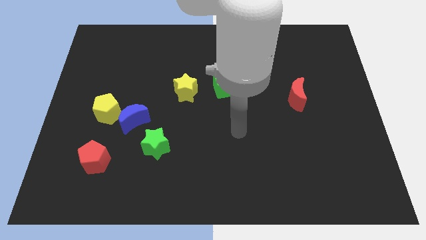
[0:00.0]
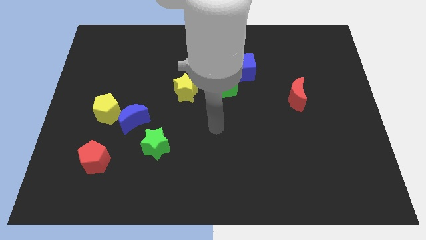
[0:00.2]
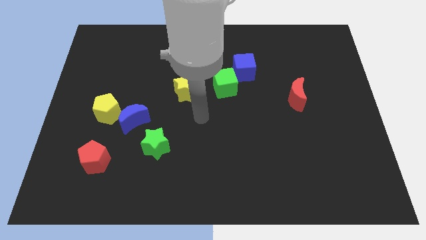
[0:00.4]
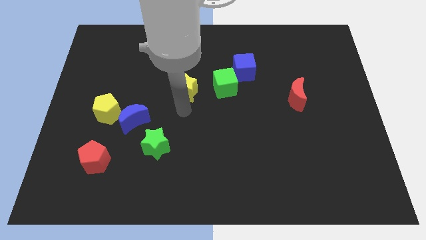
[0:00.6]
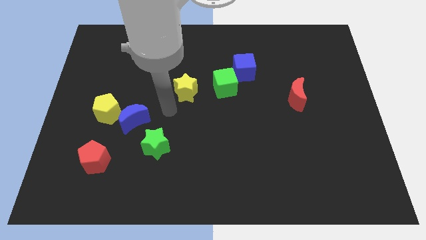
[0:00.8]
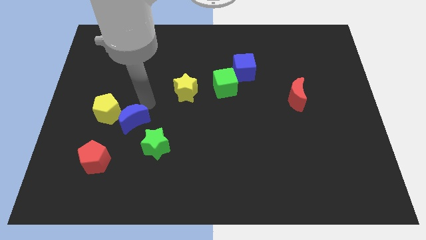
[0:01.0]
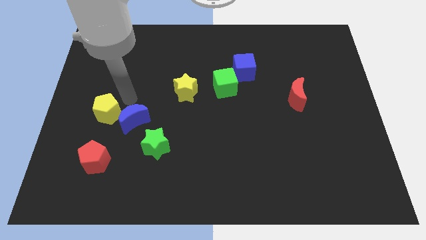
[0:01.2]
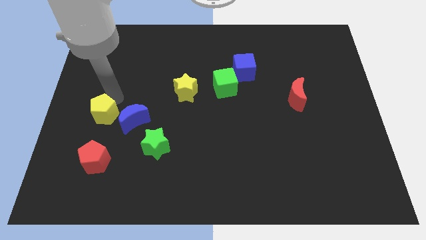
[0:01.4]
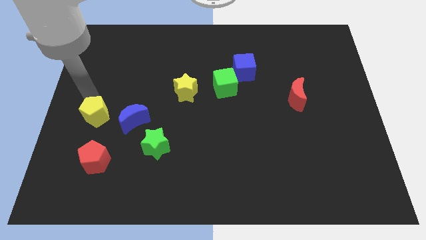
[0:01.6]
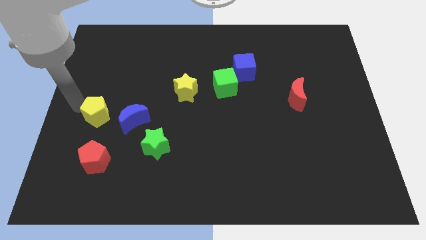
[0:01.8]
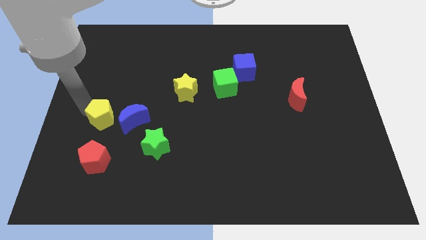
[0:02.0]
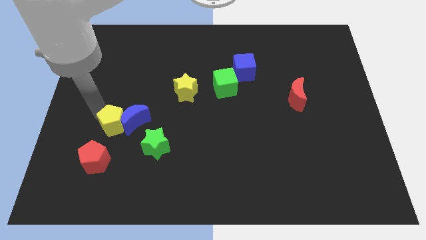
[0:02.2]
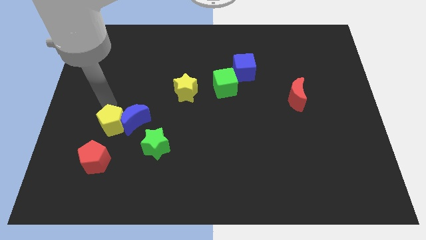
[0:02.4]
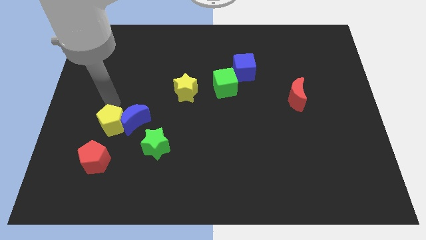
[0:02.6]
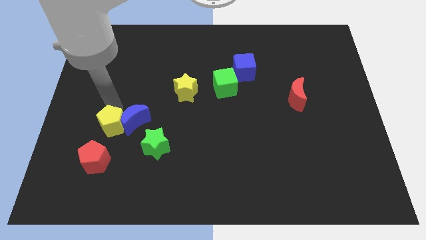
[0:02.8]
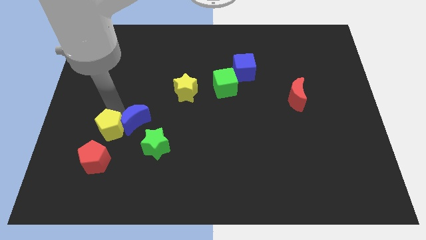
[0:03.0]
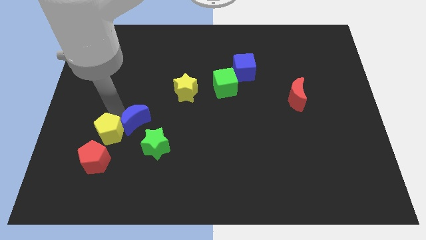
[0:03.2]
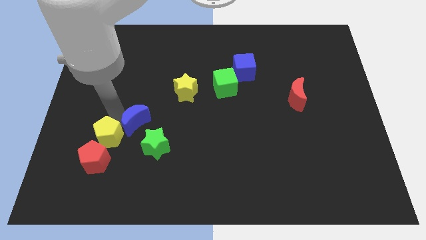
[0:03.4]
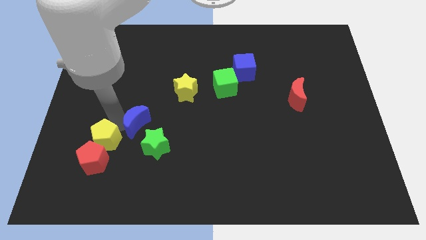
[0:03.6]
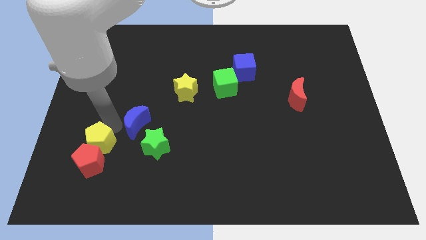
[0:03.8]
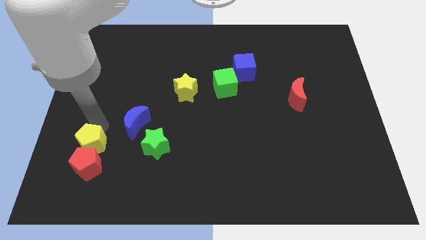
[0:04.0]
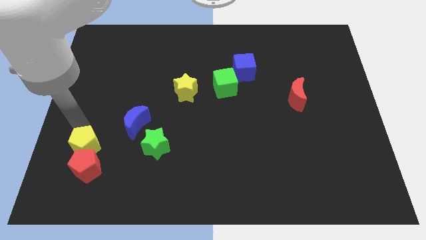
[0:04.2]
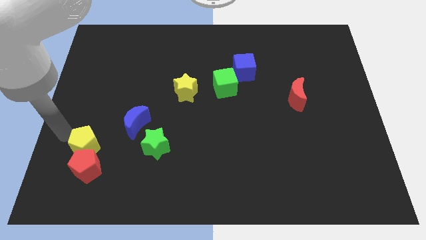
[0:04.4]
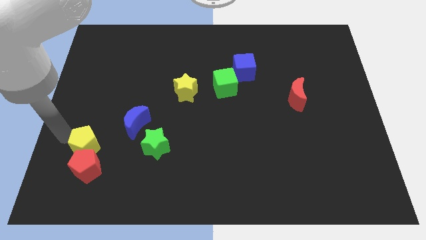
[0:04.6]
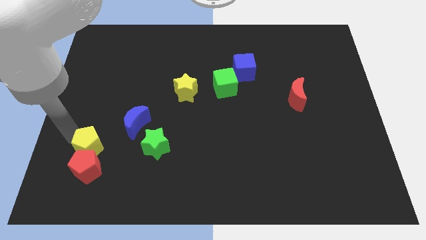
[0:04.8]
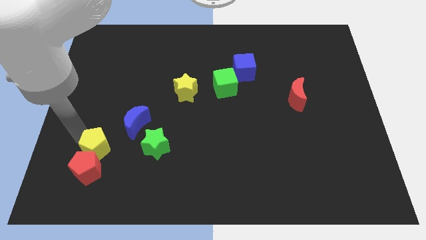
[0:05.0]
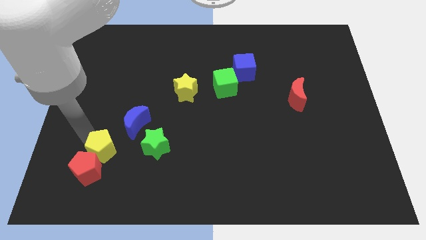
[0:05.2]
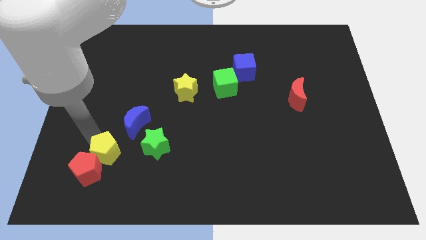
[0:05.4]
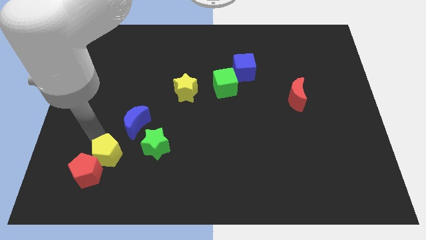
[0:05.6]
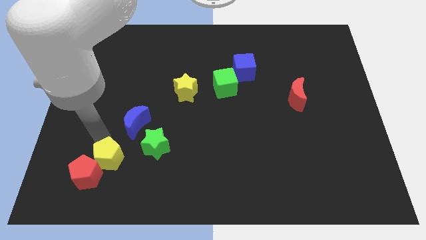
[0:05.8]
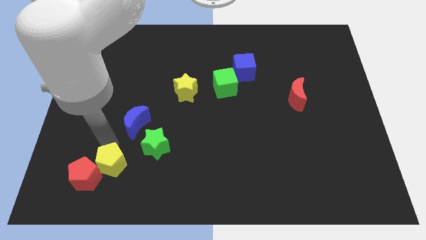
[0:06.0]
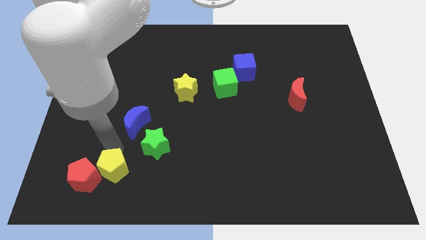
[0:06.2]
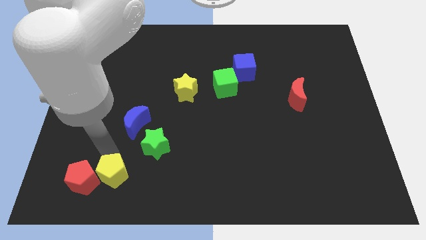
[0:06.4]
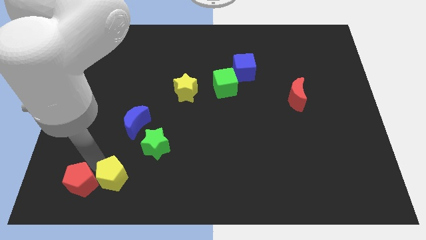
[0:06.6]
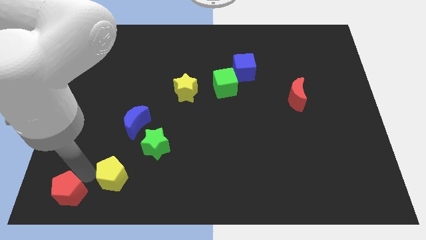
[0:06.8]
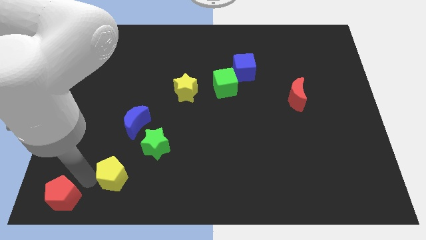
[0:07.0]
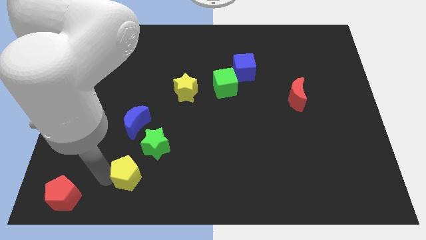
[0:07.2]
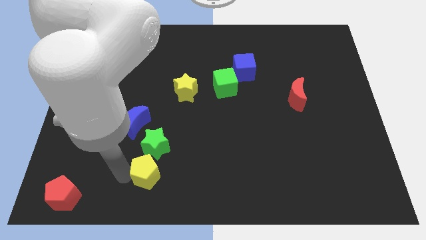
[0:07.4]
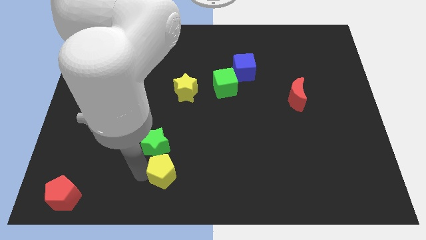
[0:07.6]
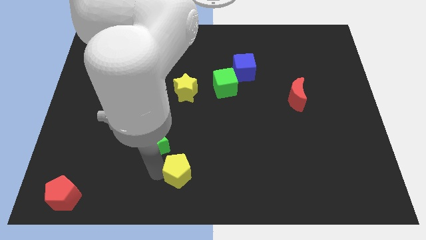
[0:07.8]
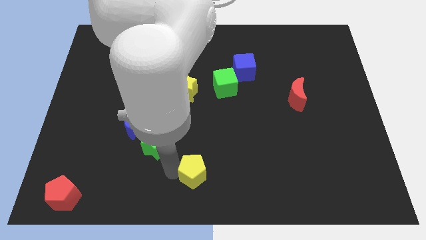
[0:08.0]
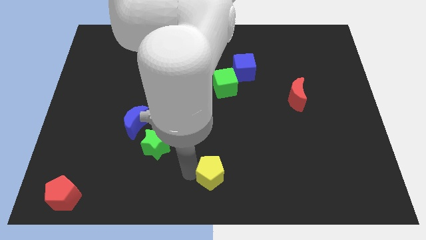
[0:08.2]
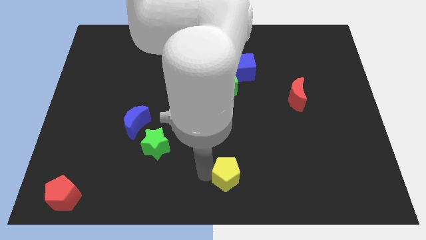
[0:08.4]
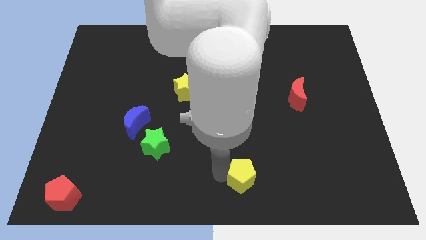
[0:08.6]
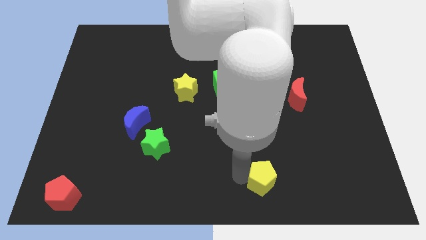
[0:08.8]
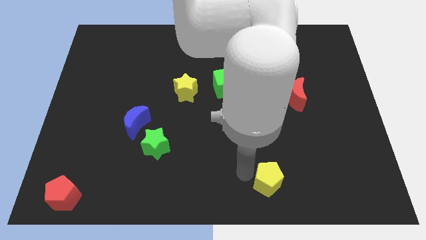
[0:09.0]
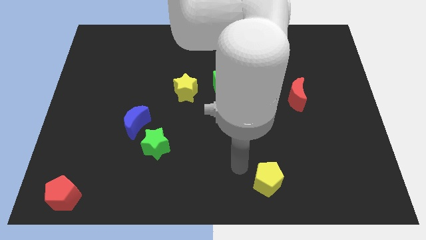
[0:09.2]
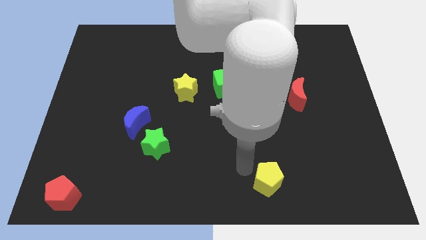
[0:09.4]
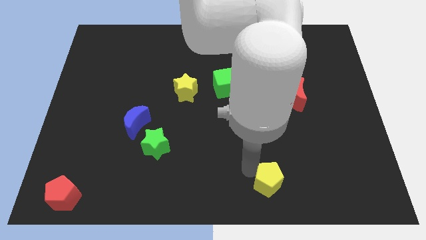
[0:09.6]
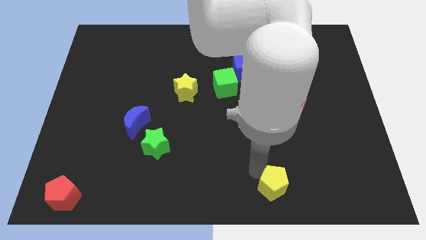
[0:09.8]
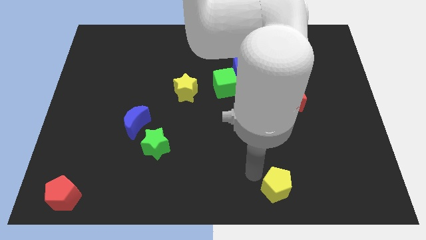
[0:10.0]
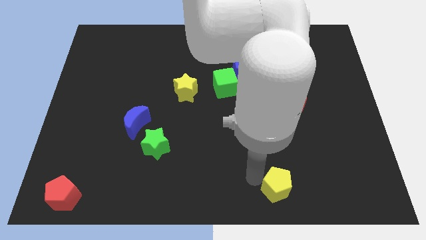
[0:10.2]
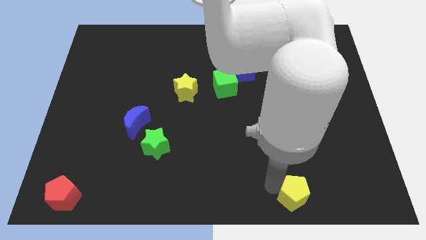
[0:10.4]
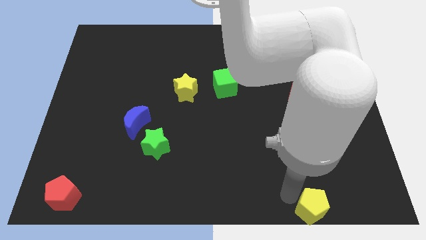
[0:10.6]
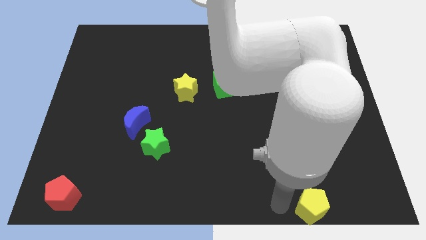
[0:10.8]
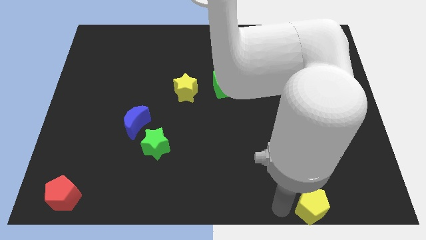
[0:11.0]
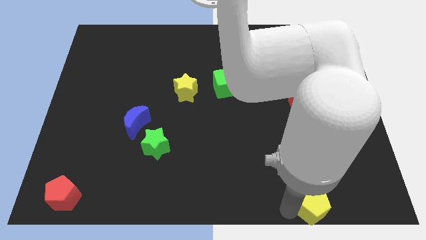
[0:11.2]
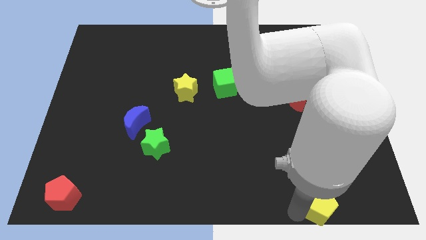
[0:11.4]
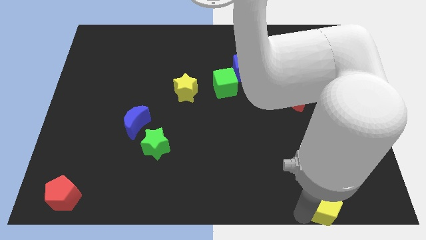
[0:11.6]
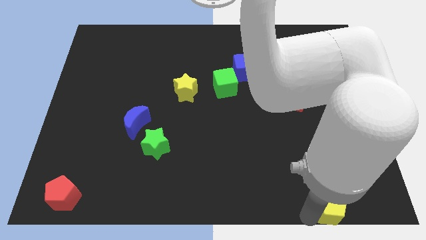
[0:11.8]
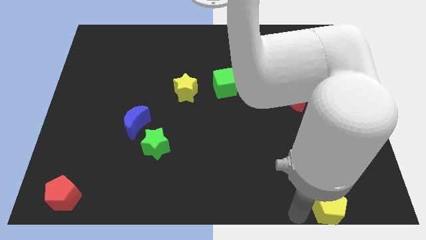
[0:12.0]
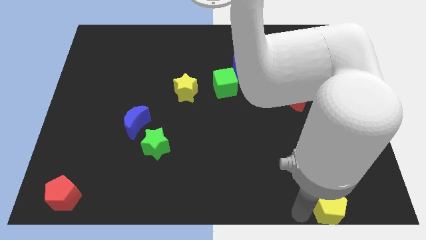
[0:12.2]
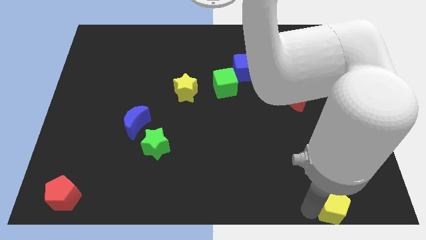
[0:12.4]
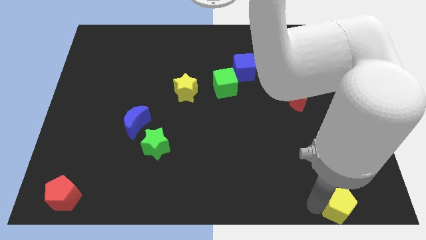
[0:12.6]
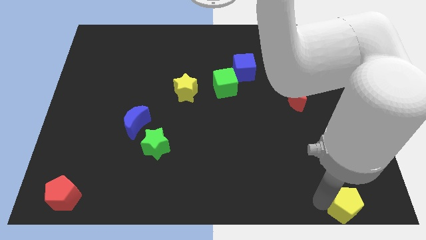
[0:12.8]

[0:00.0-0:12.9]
move the yellow pentagon to the bottom right
